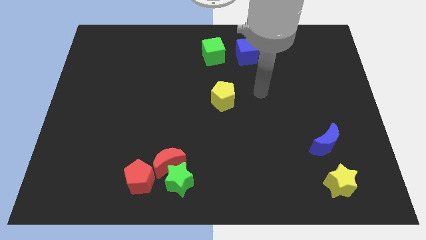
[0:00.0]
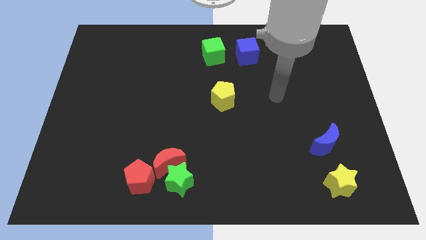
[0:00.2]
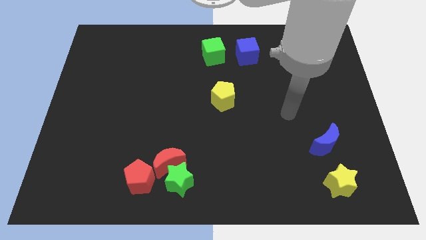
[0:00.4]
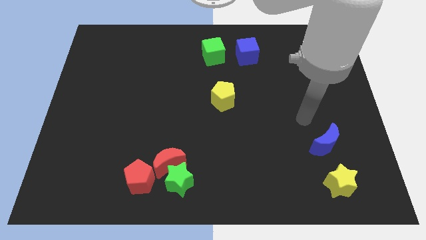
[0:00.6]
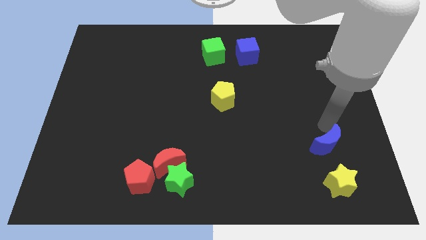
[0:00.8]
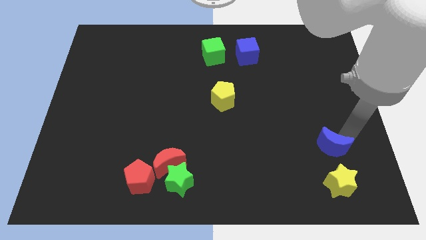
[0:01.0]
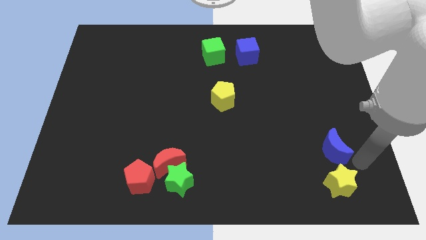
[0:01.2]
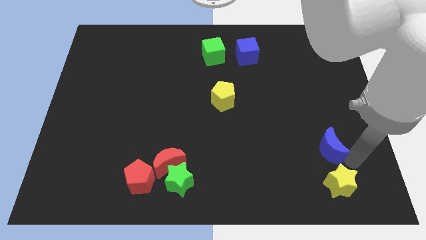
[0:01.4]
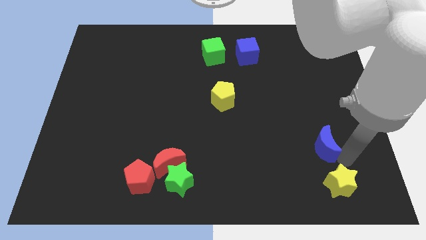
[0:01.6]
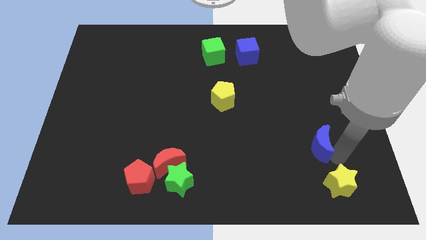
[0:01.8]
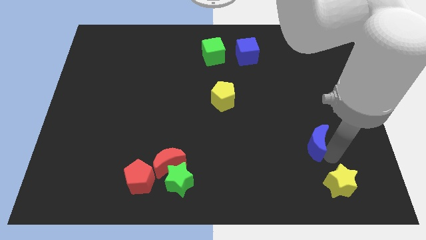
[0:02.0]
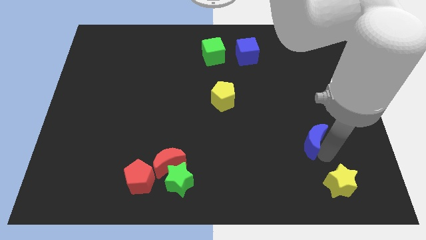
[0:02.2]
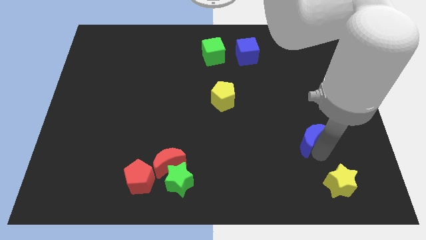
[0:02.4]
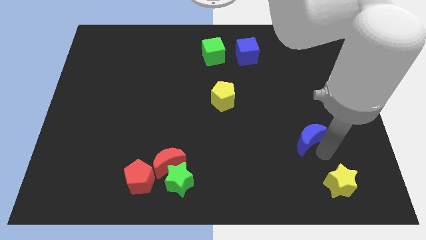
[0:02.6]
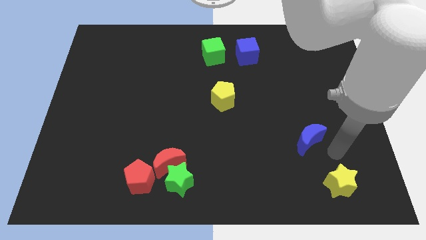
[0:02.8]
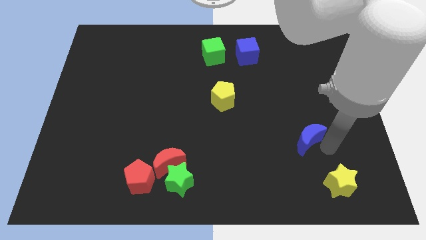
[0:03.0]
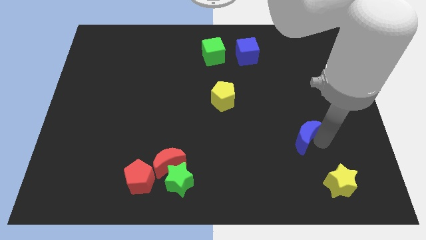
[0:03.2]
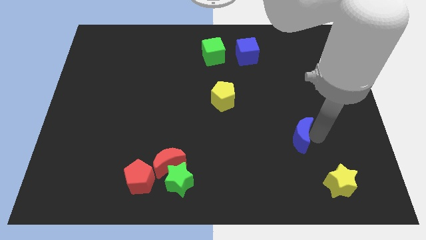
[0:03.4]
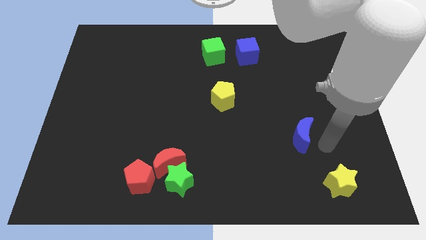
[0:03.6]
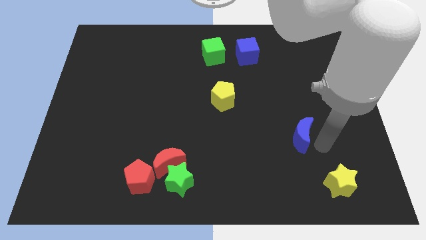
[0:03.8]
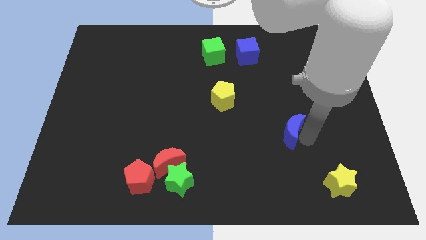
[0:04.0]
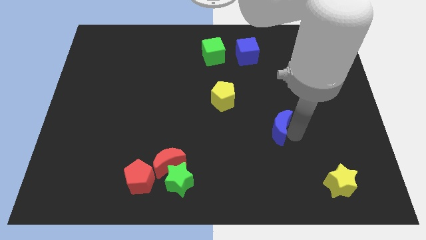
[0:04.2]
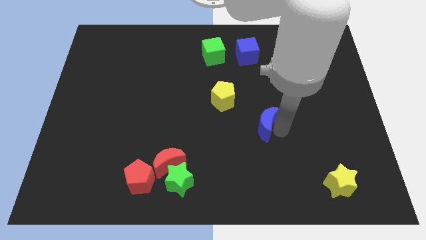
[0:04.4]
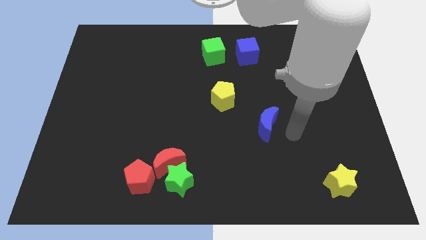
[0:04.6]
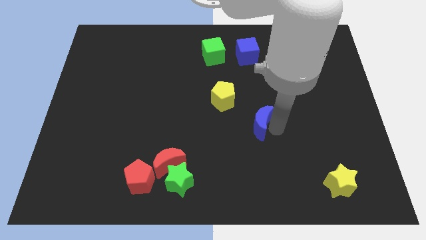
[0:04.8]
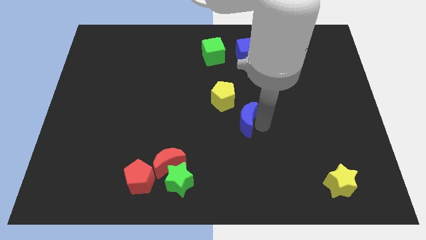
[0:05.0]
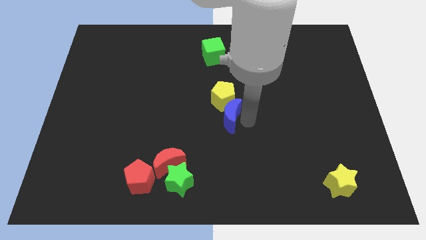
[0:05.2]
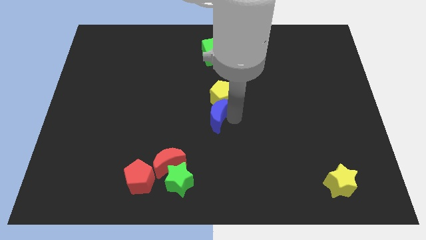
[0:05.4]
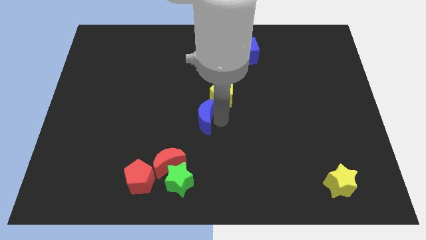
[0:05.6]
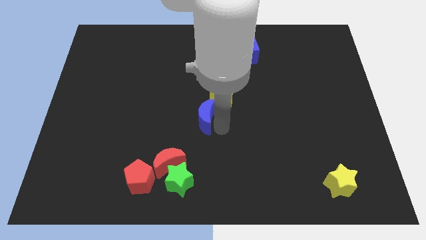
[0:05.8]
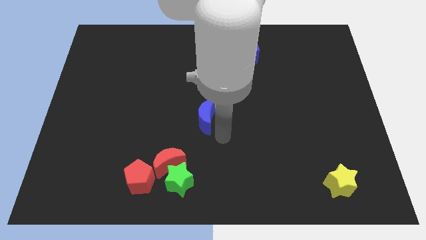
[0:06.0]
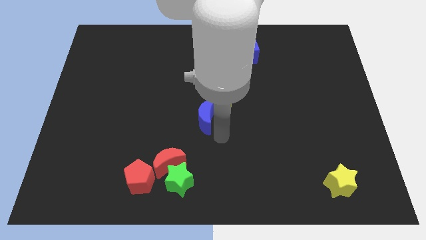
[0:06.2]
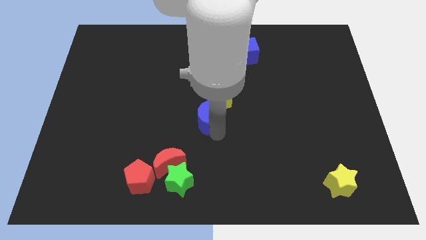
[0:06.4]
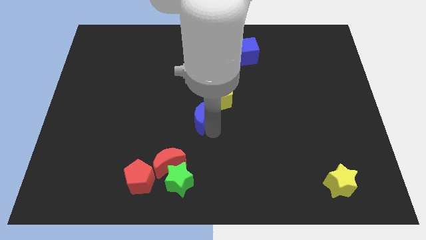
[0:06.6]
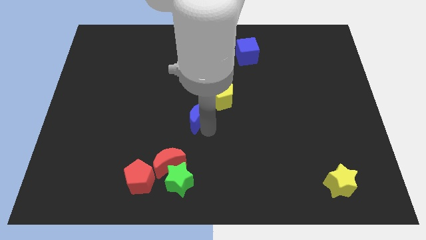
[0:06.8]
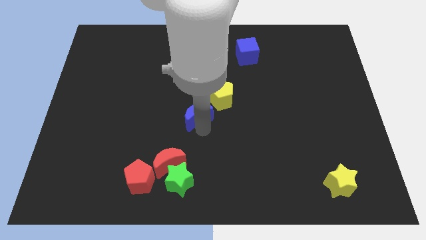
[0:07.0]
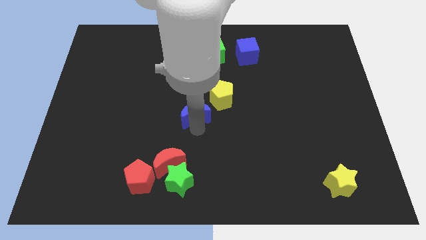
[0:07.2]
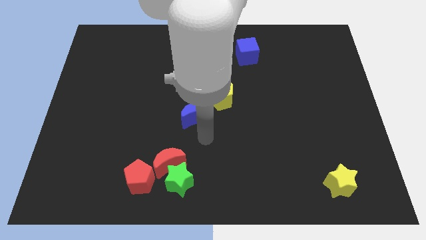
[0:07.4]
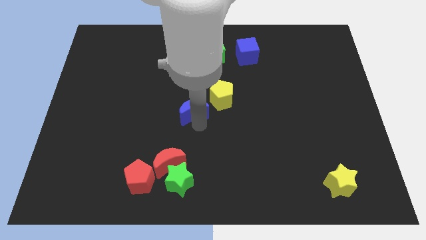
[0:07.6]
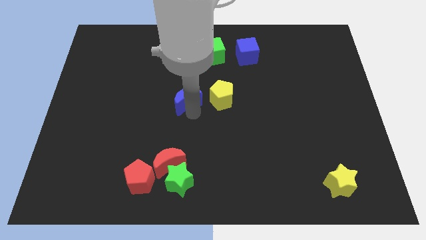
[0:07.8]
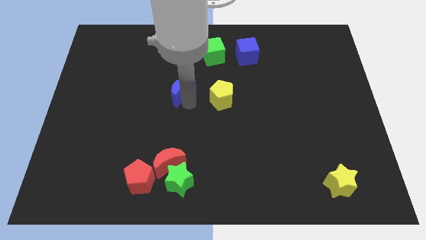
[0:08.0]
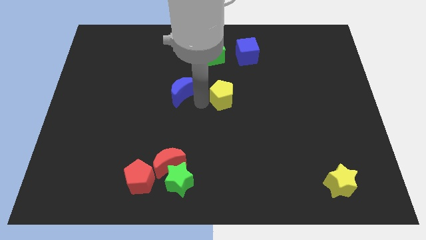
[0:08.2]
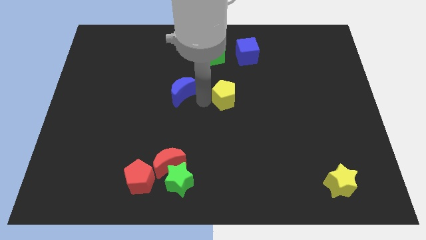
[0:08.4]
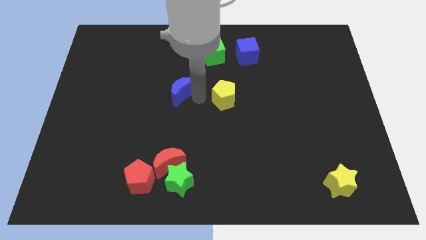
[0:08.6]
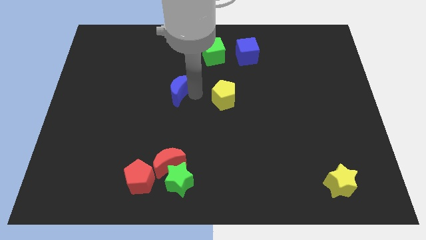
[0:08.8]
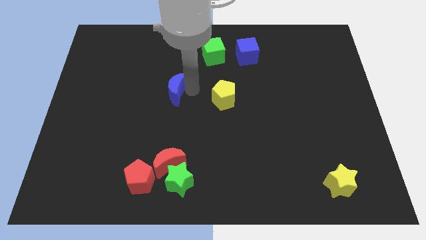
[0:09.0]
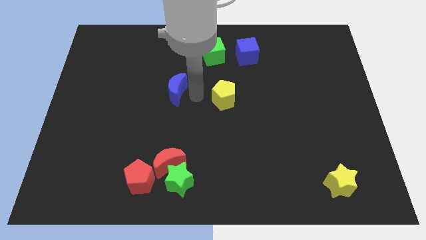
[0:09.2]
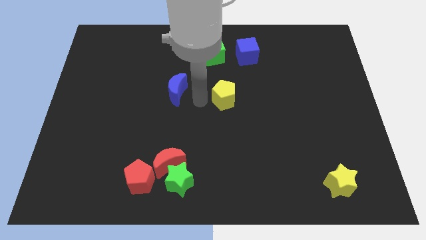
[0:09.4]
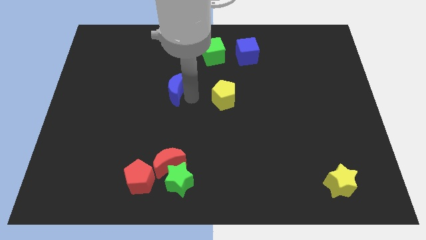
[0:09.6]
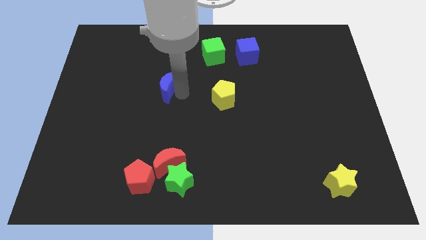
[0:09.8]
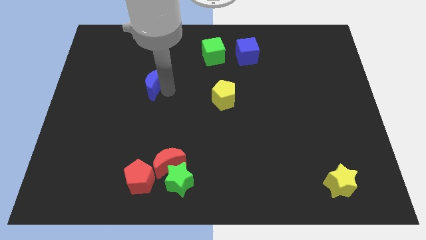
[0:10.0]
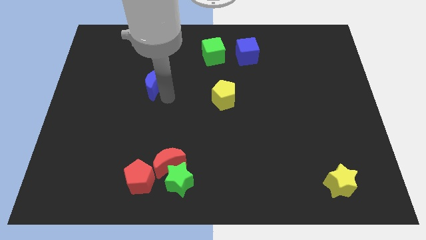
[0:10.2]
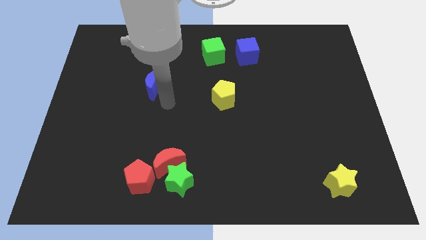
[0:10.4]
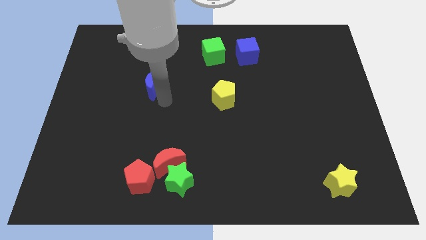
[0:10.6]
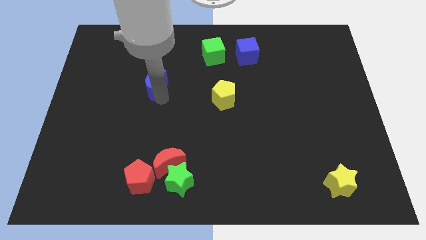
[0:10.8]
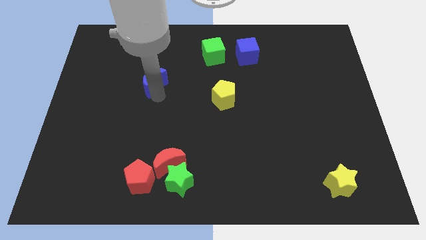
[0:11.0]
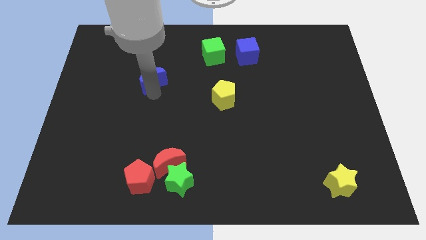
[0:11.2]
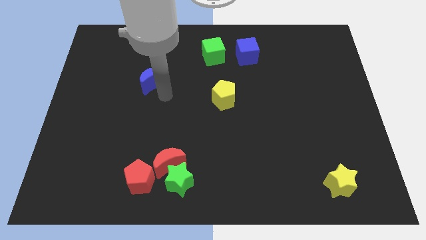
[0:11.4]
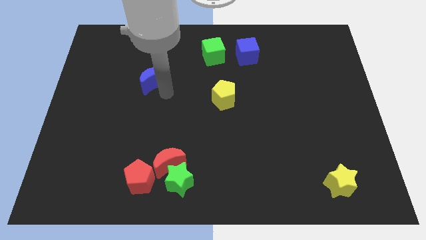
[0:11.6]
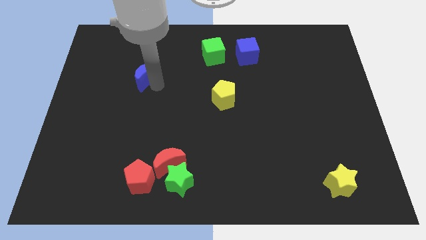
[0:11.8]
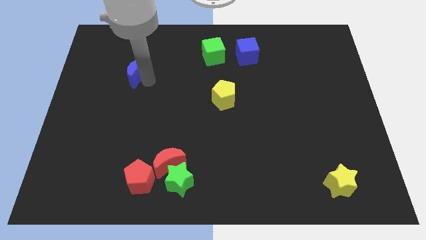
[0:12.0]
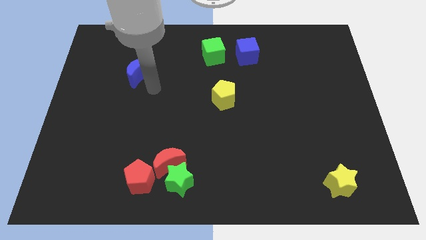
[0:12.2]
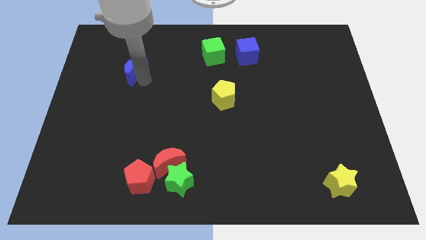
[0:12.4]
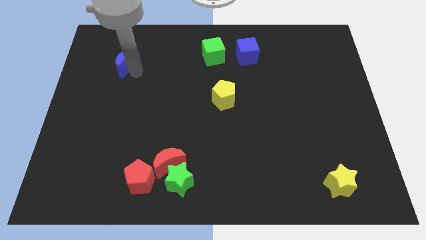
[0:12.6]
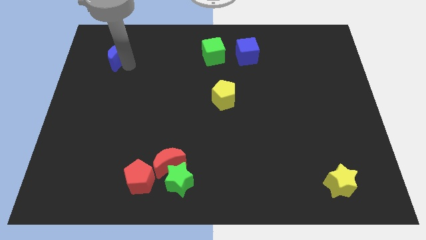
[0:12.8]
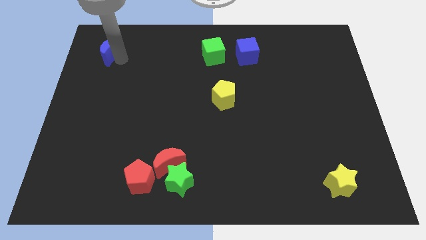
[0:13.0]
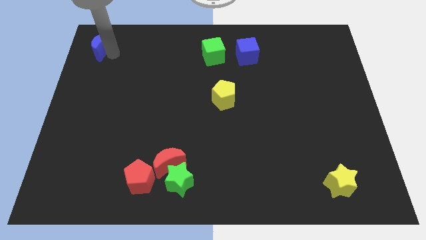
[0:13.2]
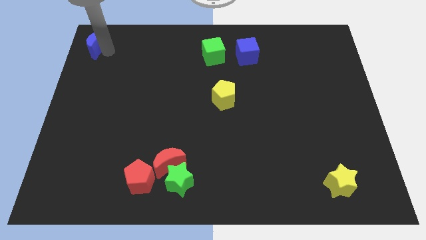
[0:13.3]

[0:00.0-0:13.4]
put the blue moon to the top left of the board
